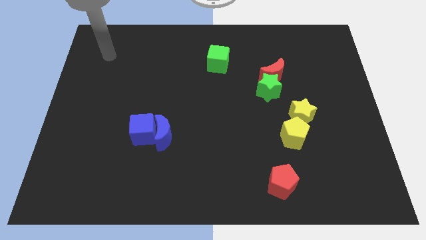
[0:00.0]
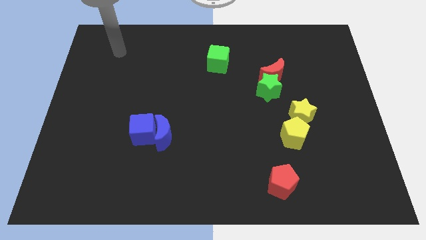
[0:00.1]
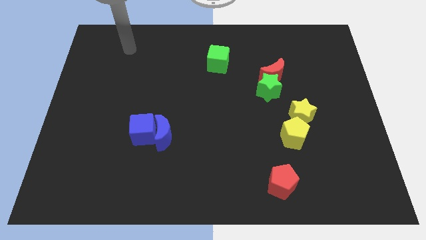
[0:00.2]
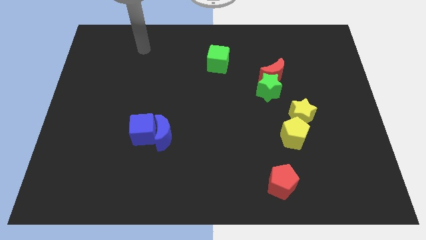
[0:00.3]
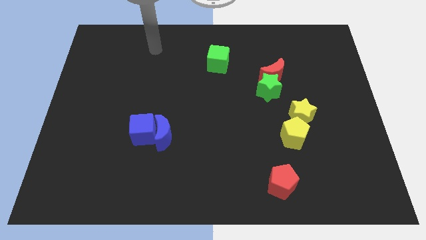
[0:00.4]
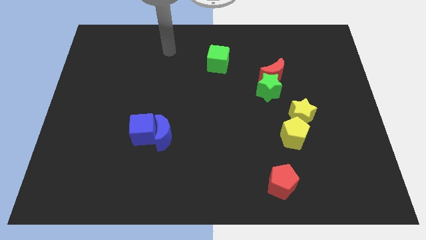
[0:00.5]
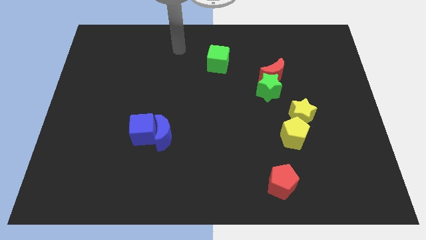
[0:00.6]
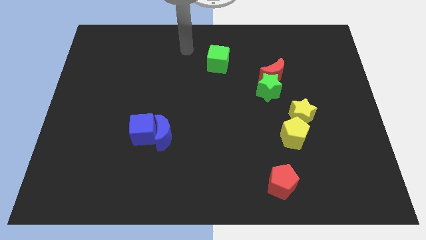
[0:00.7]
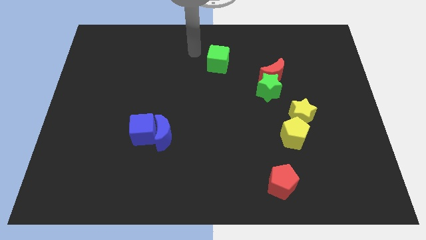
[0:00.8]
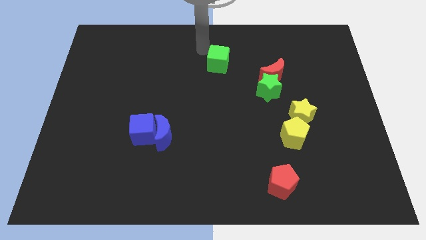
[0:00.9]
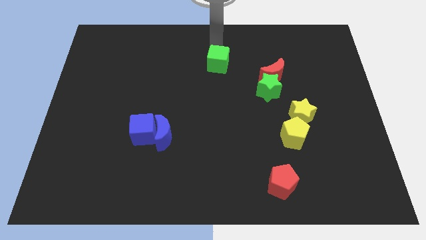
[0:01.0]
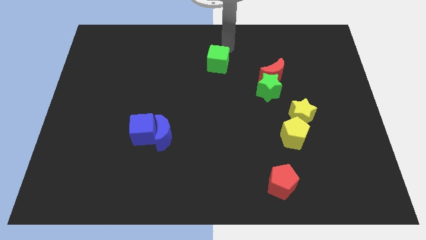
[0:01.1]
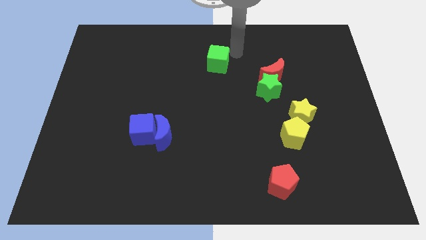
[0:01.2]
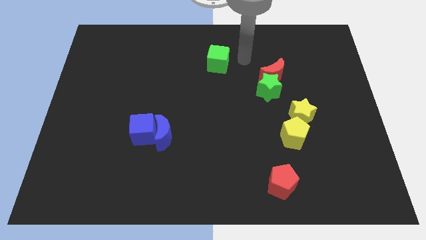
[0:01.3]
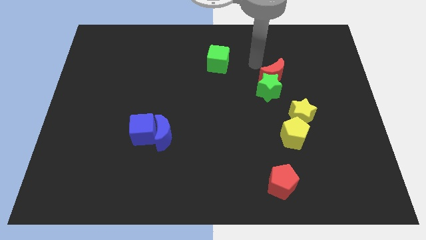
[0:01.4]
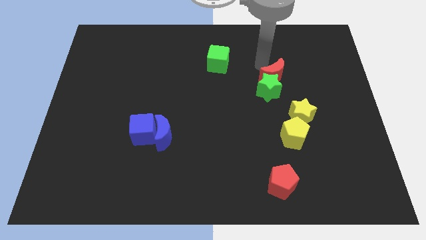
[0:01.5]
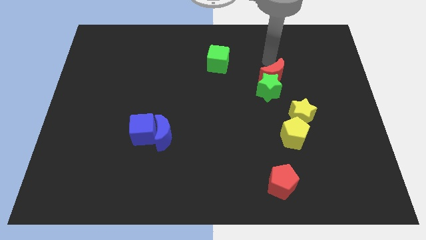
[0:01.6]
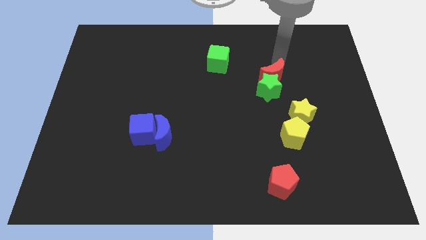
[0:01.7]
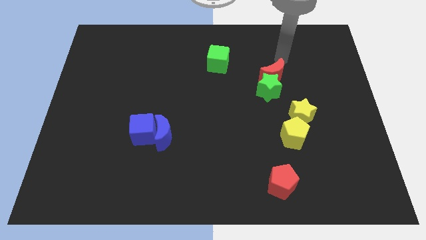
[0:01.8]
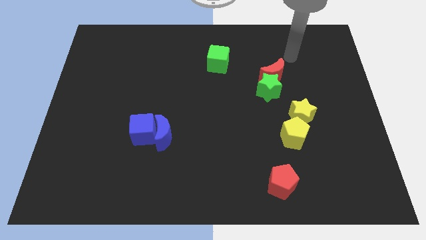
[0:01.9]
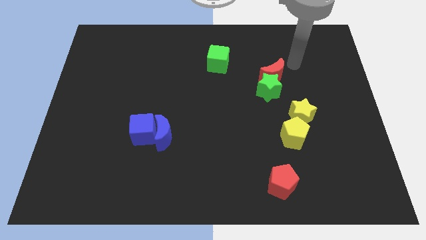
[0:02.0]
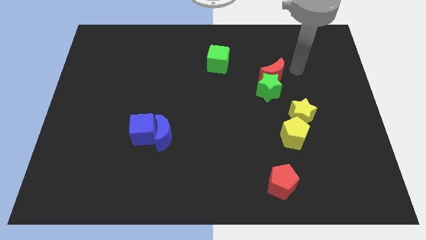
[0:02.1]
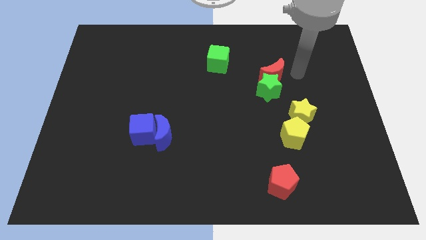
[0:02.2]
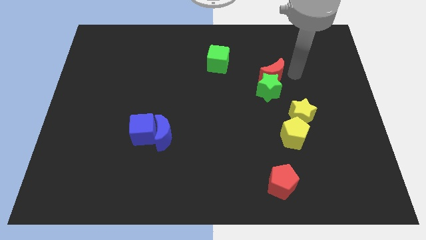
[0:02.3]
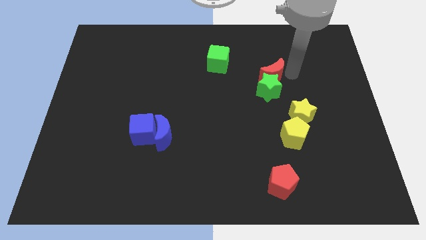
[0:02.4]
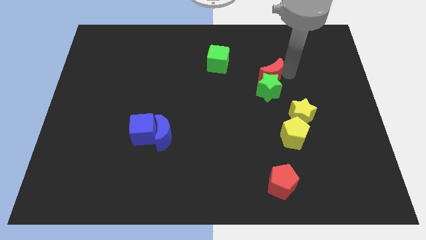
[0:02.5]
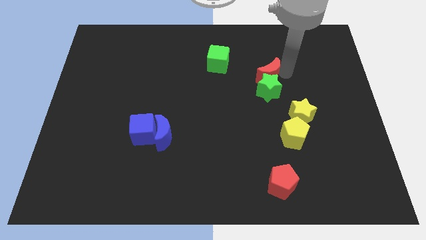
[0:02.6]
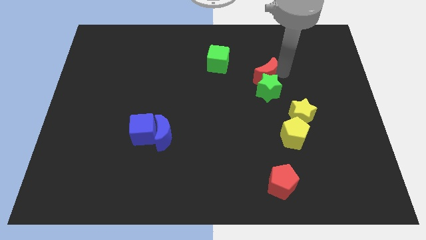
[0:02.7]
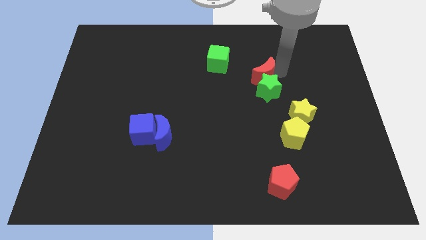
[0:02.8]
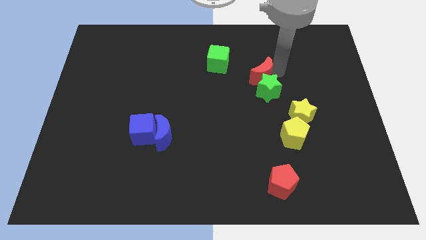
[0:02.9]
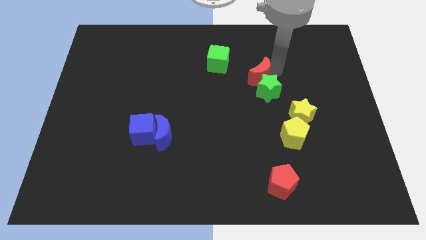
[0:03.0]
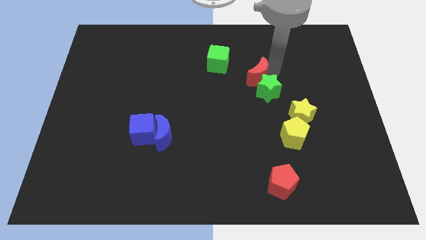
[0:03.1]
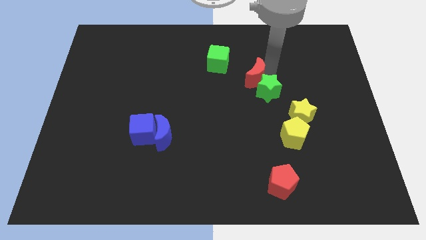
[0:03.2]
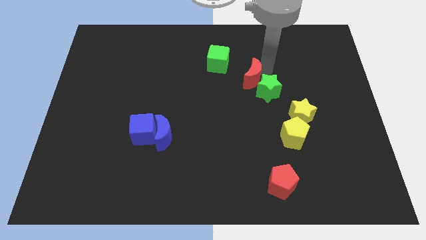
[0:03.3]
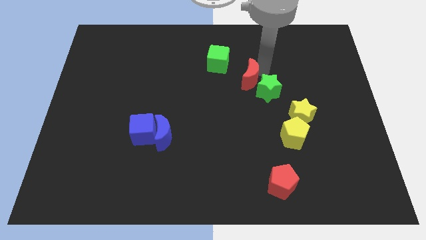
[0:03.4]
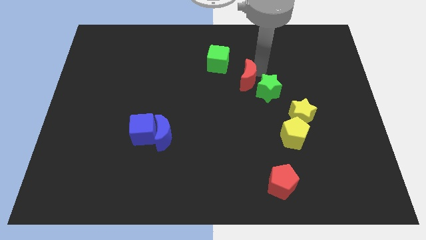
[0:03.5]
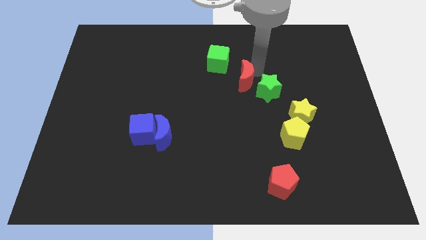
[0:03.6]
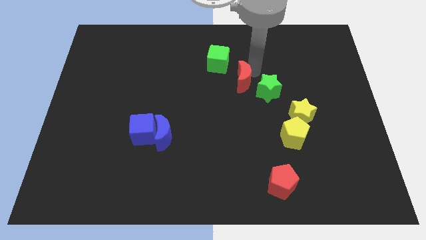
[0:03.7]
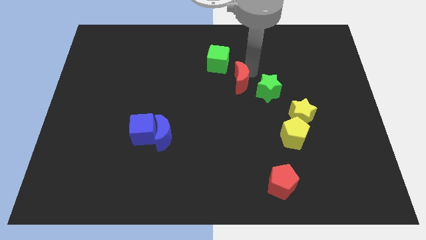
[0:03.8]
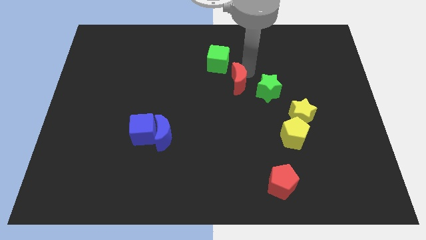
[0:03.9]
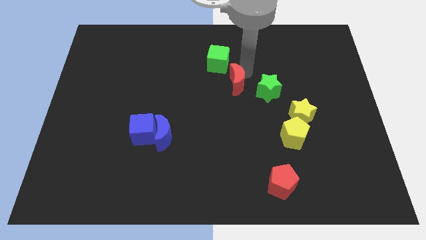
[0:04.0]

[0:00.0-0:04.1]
push the red moon down and left a bit

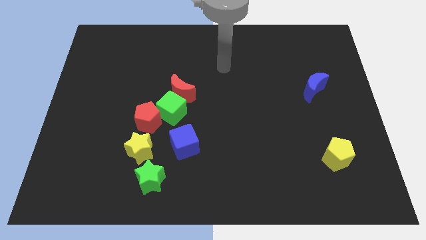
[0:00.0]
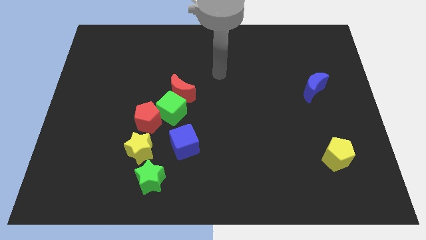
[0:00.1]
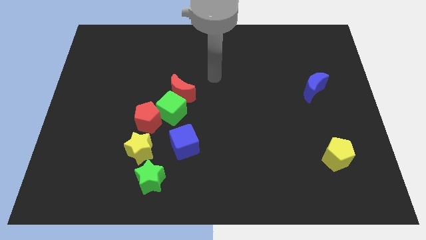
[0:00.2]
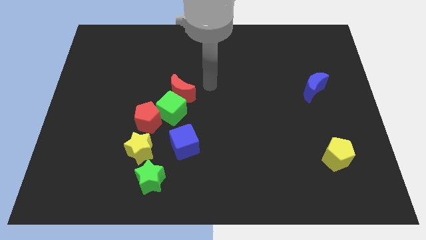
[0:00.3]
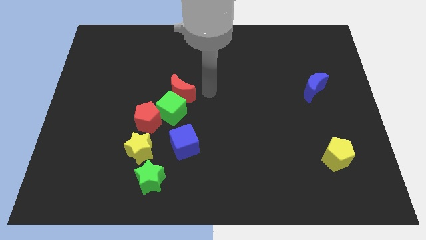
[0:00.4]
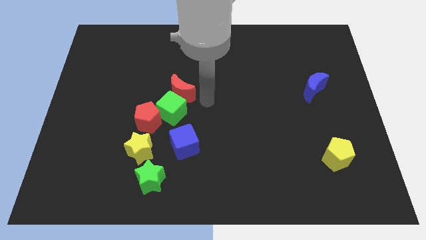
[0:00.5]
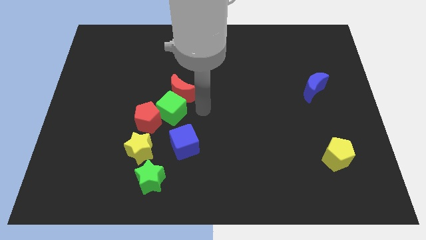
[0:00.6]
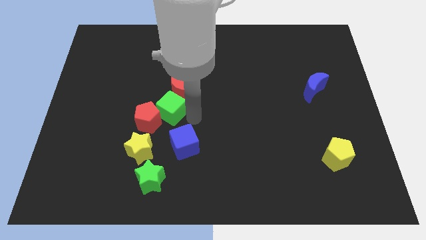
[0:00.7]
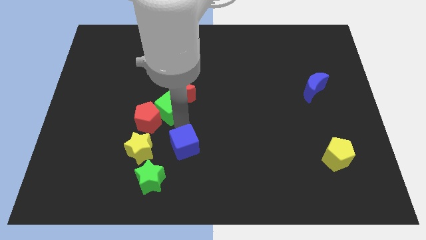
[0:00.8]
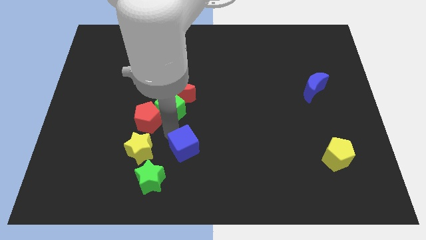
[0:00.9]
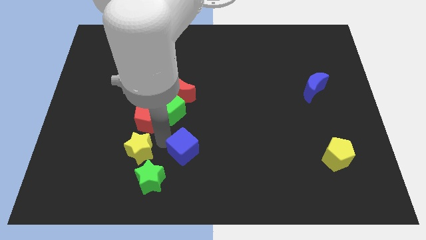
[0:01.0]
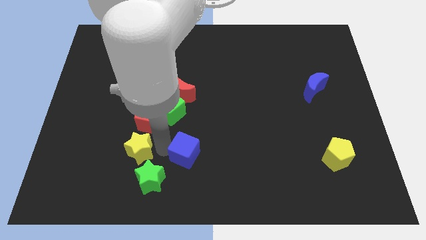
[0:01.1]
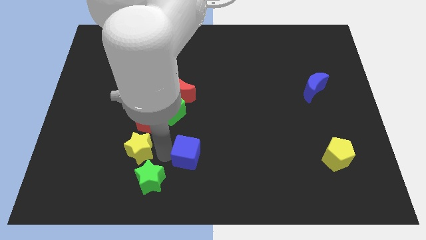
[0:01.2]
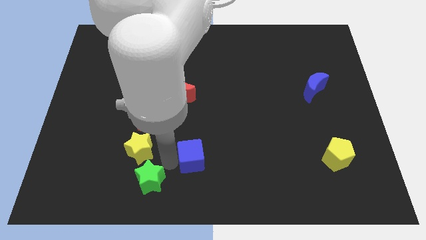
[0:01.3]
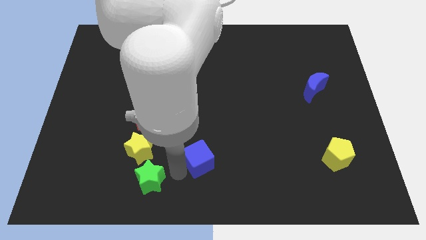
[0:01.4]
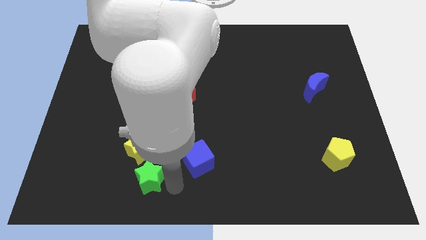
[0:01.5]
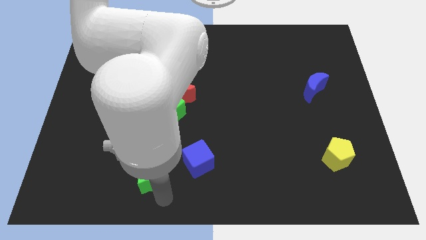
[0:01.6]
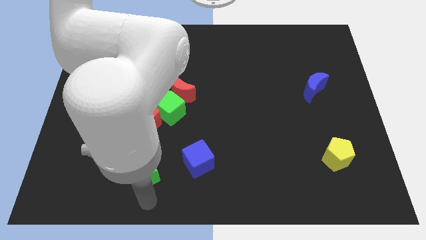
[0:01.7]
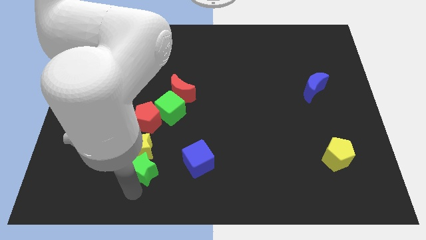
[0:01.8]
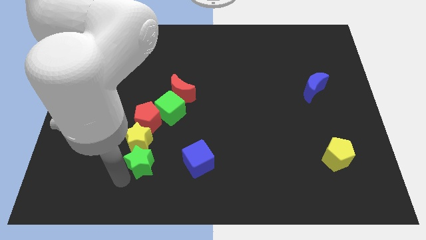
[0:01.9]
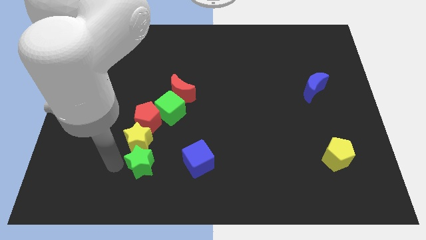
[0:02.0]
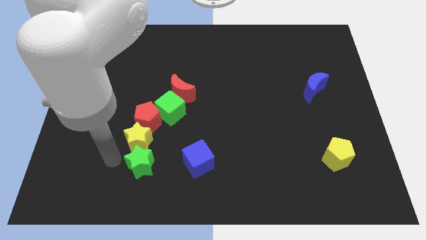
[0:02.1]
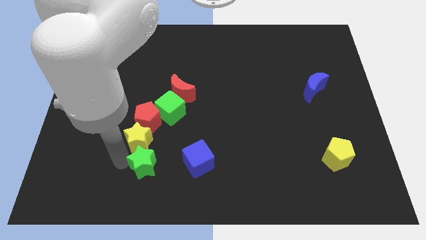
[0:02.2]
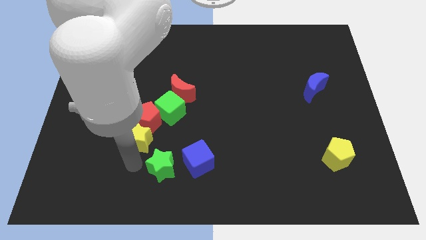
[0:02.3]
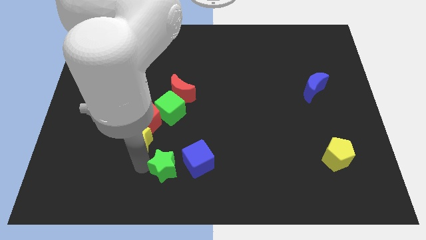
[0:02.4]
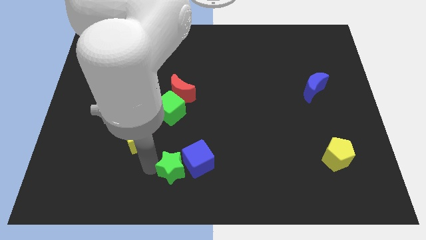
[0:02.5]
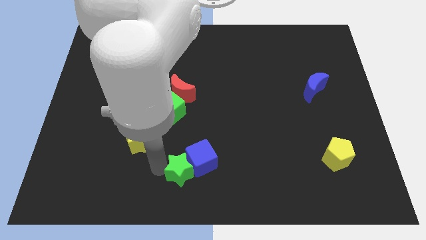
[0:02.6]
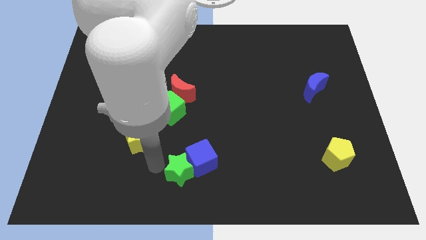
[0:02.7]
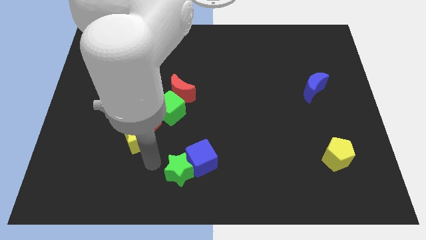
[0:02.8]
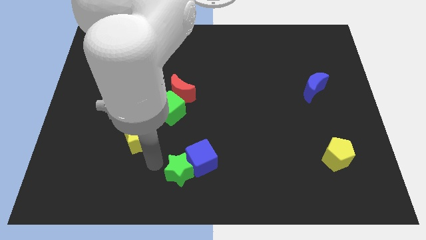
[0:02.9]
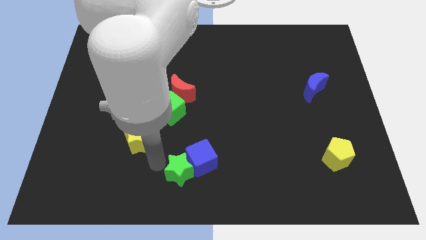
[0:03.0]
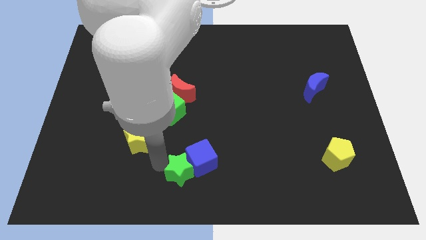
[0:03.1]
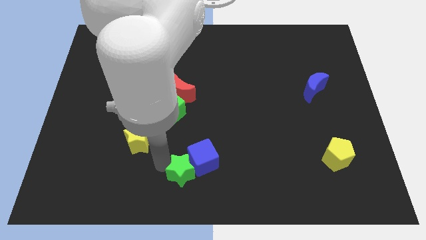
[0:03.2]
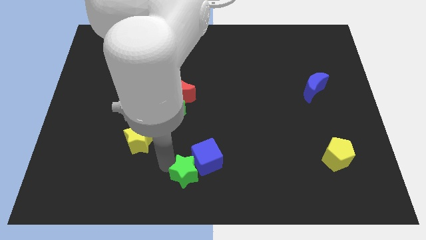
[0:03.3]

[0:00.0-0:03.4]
slightly move the green star to the right

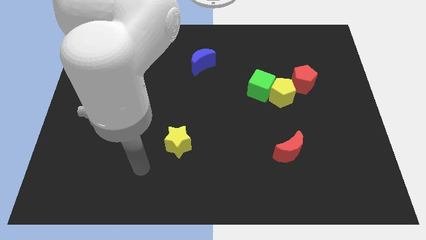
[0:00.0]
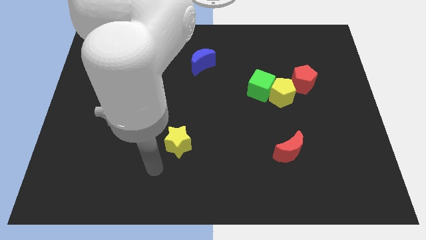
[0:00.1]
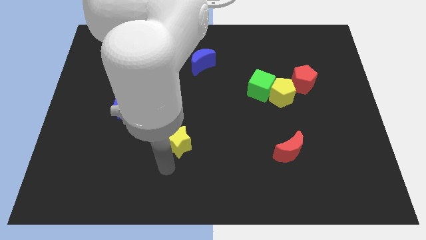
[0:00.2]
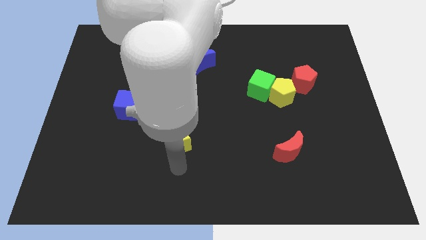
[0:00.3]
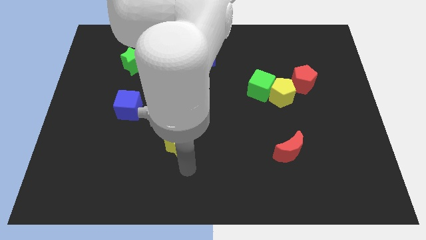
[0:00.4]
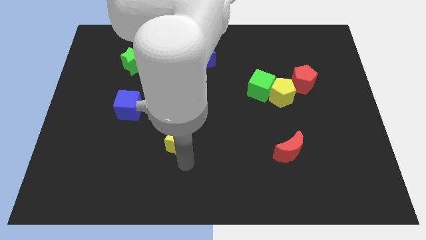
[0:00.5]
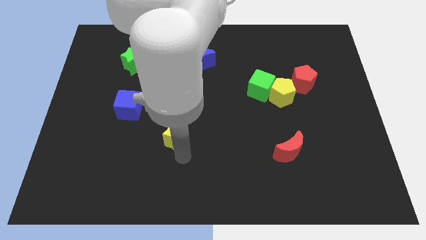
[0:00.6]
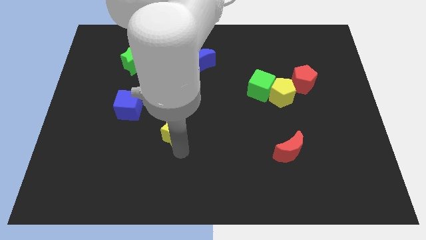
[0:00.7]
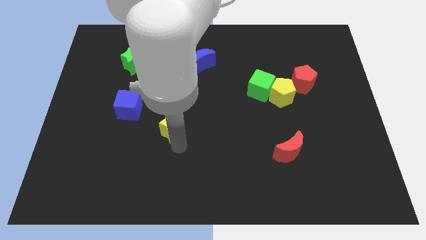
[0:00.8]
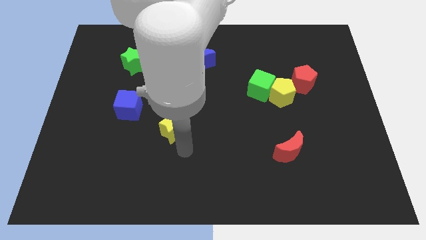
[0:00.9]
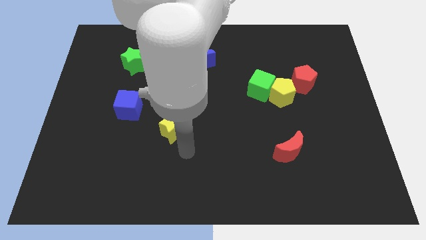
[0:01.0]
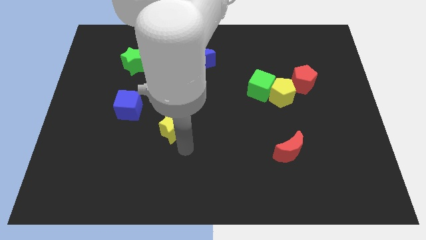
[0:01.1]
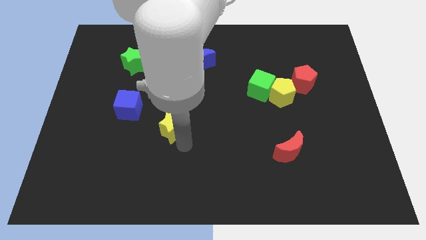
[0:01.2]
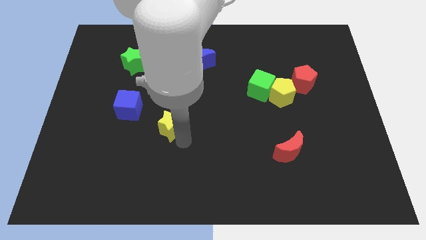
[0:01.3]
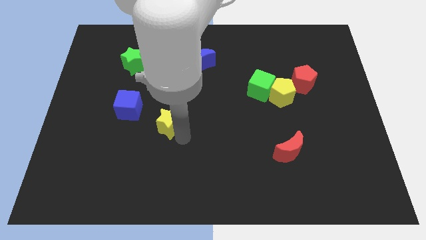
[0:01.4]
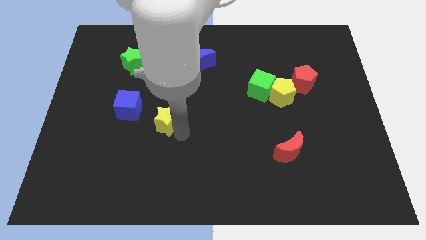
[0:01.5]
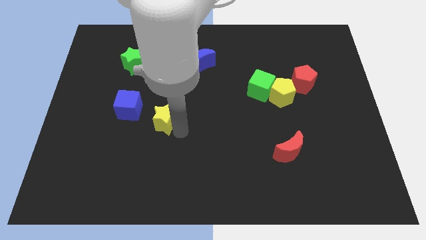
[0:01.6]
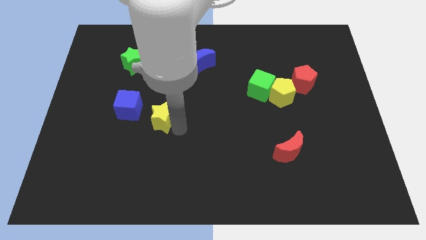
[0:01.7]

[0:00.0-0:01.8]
slightly slide the yellow star up and to the left
